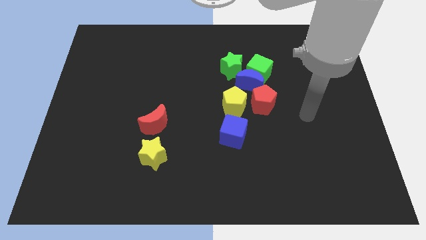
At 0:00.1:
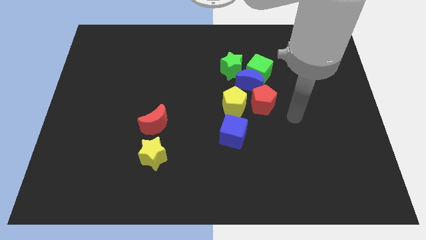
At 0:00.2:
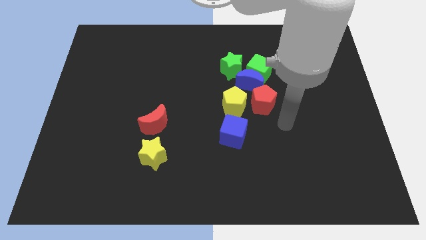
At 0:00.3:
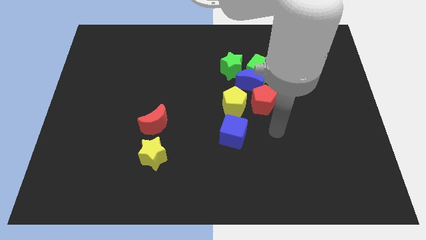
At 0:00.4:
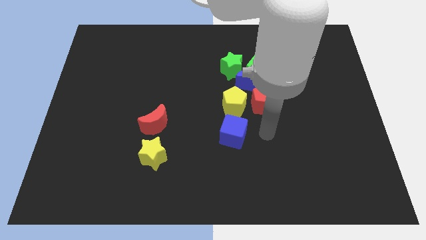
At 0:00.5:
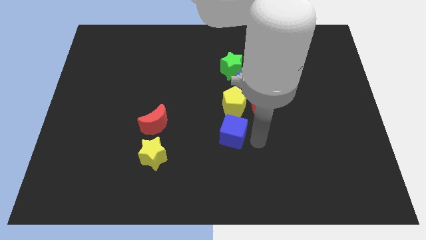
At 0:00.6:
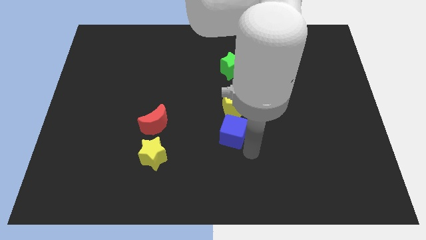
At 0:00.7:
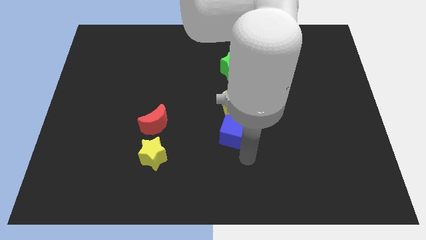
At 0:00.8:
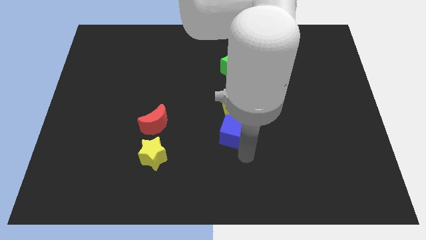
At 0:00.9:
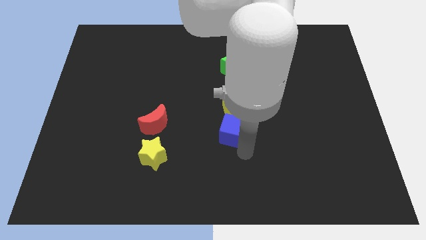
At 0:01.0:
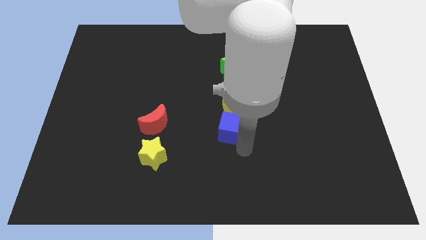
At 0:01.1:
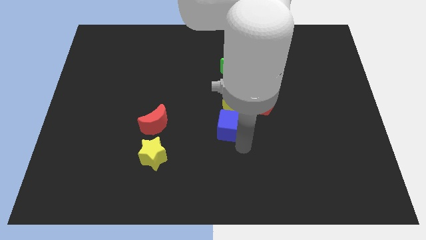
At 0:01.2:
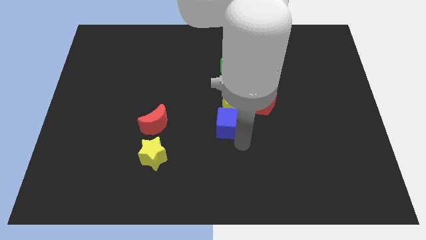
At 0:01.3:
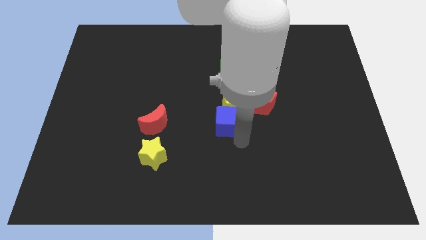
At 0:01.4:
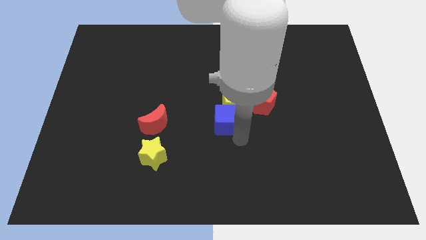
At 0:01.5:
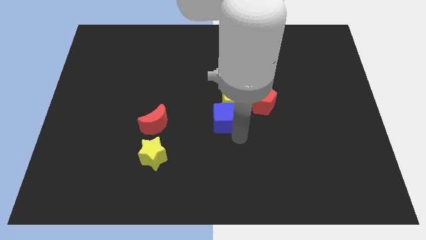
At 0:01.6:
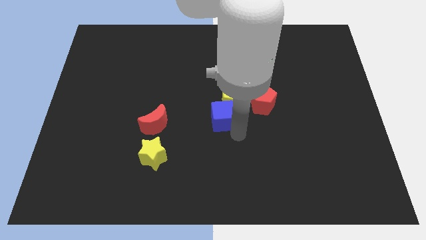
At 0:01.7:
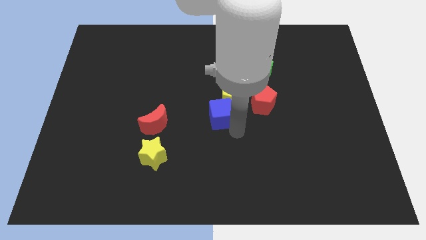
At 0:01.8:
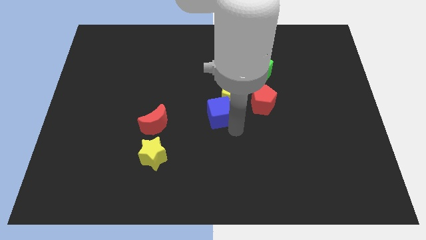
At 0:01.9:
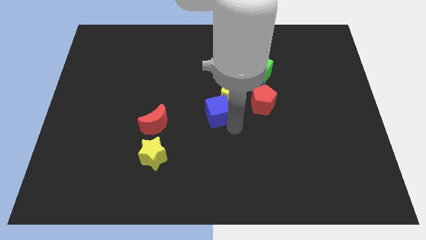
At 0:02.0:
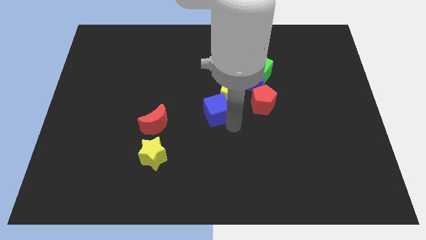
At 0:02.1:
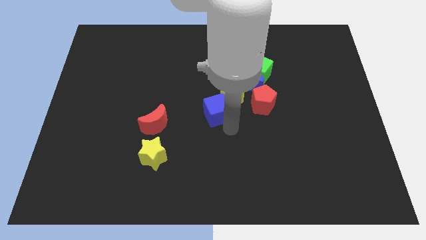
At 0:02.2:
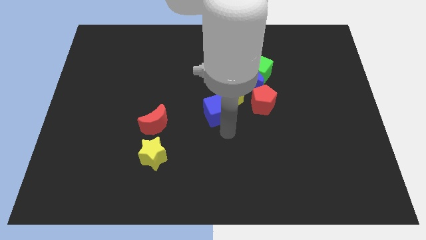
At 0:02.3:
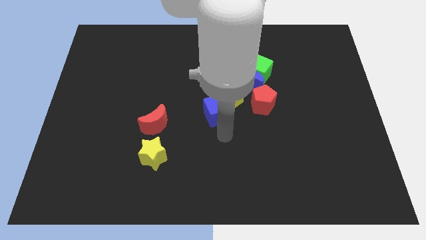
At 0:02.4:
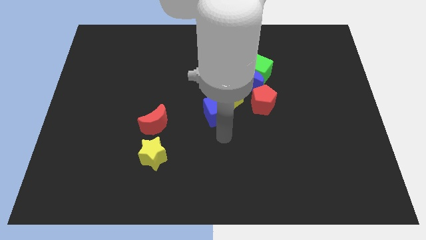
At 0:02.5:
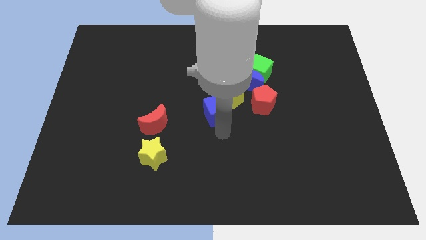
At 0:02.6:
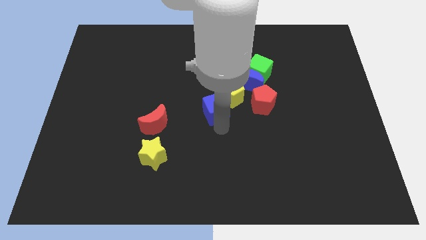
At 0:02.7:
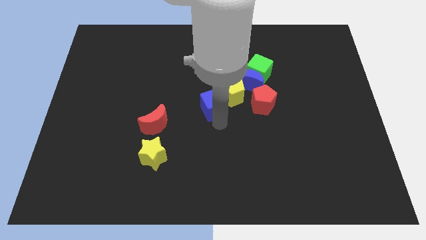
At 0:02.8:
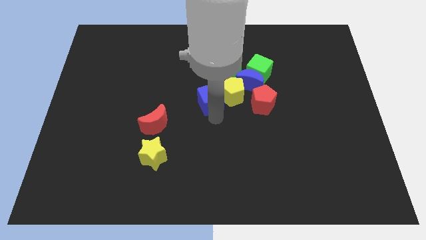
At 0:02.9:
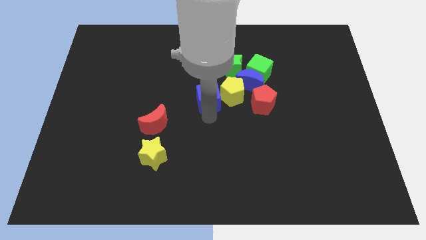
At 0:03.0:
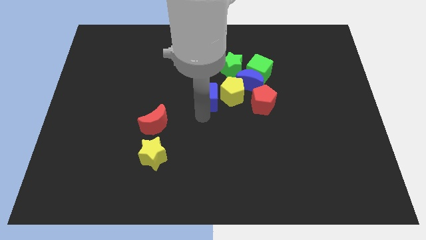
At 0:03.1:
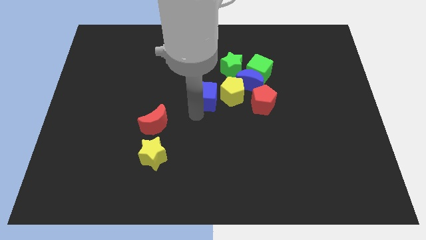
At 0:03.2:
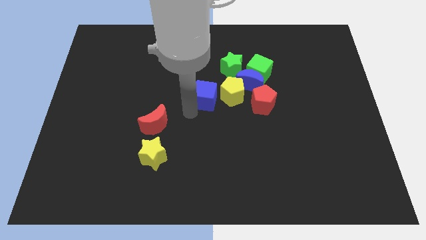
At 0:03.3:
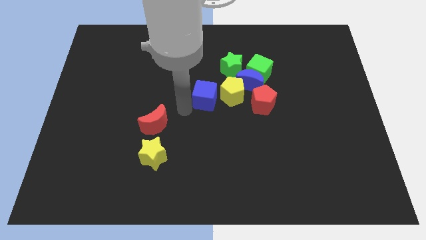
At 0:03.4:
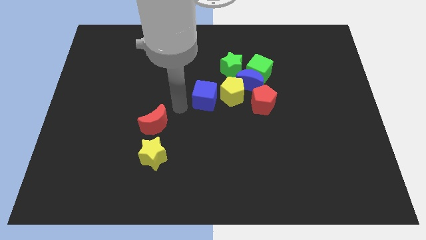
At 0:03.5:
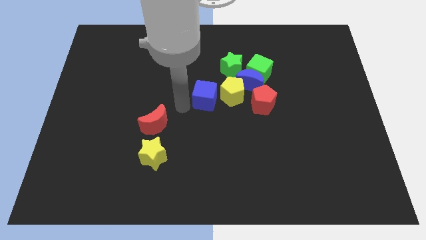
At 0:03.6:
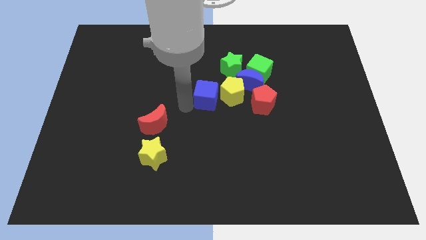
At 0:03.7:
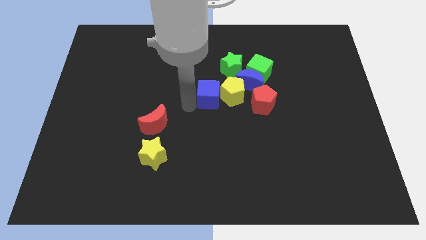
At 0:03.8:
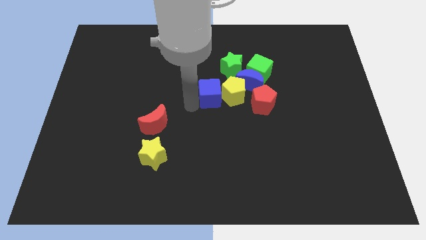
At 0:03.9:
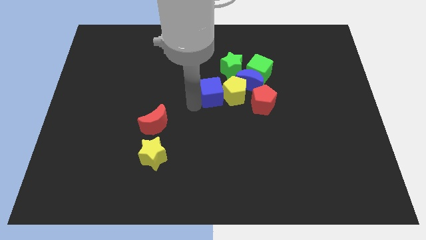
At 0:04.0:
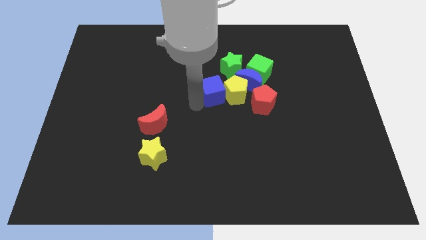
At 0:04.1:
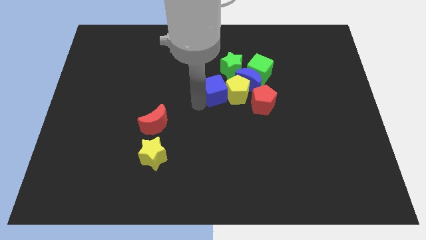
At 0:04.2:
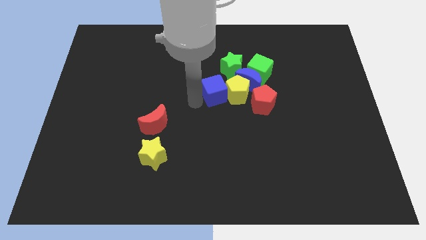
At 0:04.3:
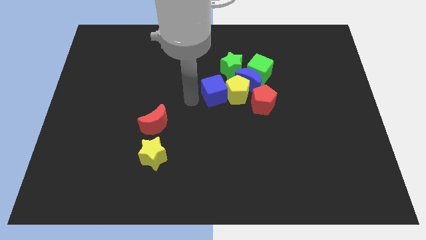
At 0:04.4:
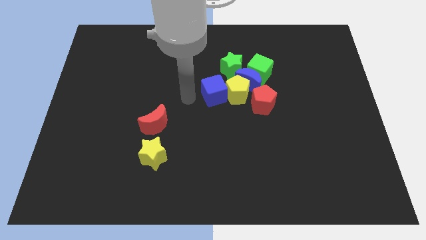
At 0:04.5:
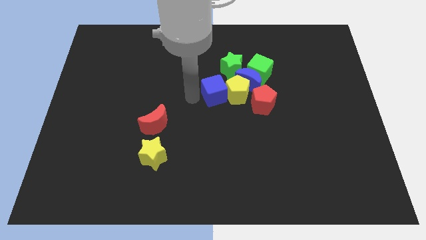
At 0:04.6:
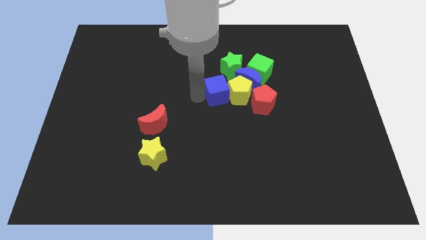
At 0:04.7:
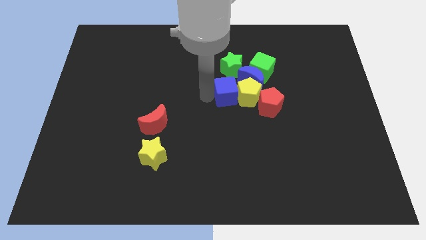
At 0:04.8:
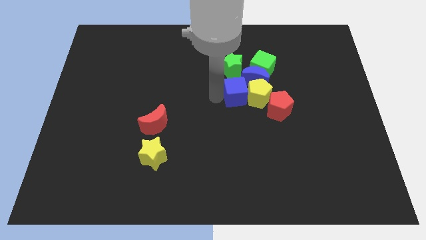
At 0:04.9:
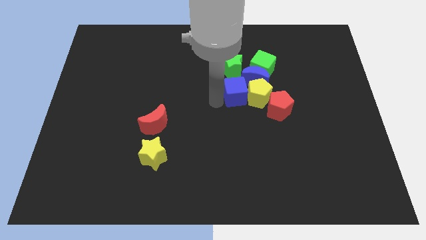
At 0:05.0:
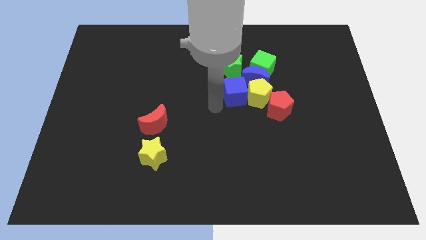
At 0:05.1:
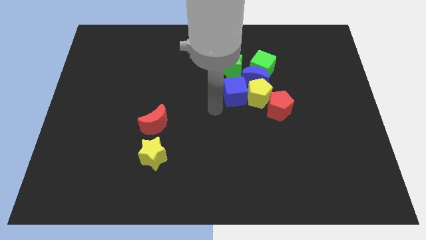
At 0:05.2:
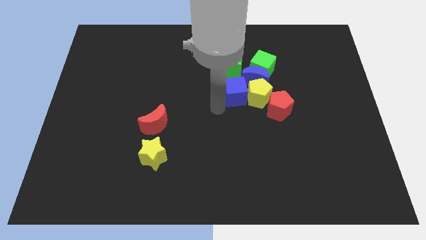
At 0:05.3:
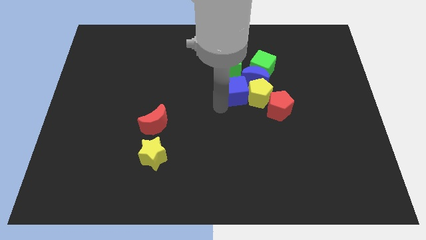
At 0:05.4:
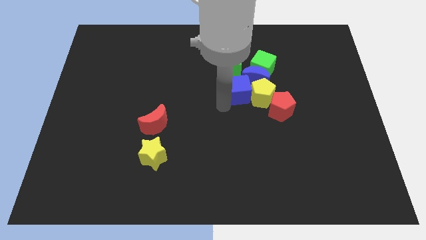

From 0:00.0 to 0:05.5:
move the blue cube to the blue moon

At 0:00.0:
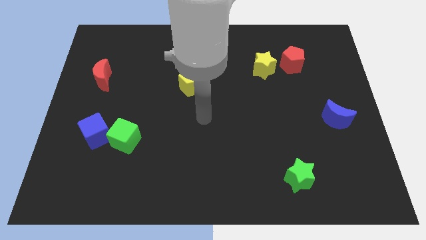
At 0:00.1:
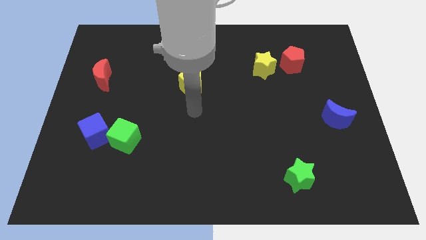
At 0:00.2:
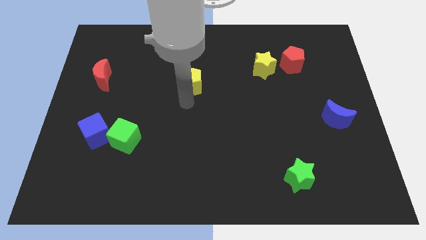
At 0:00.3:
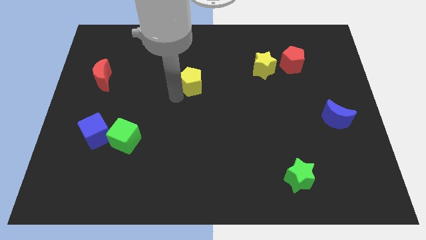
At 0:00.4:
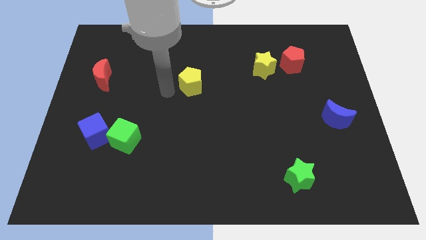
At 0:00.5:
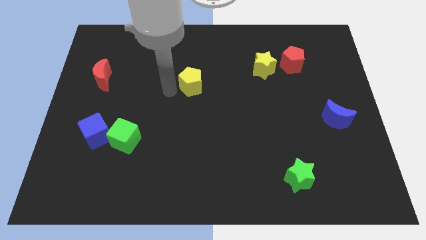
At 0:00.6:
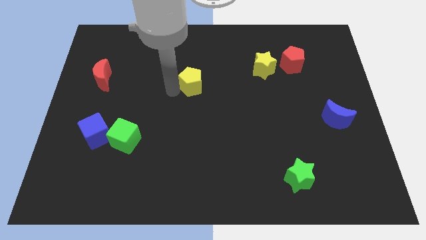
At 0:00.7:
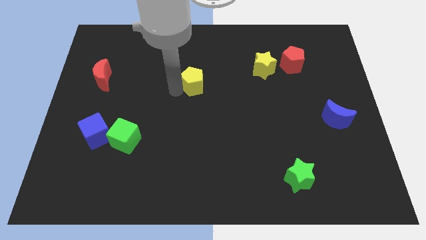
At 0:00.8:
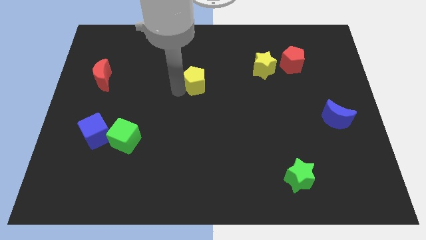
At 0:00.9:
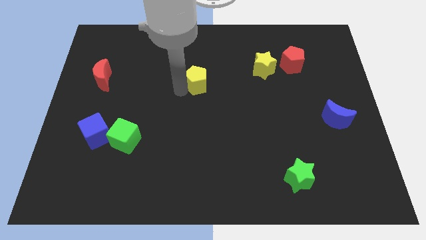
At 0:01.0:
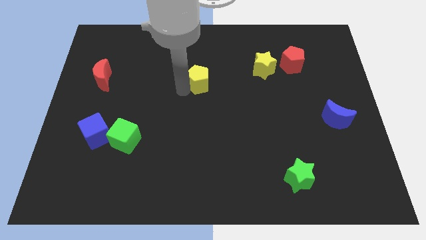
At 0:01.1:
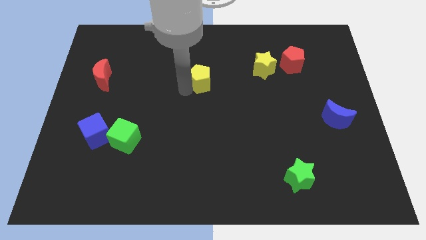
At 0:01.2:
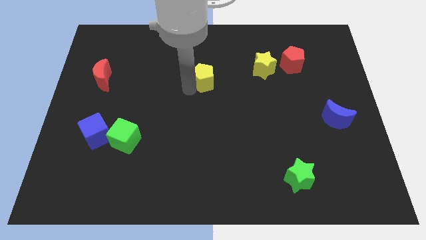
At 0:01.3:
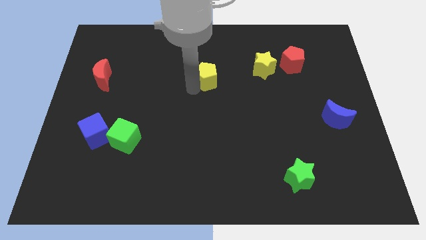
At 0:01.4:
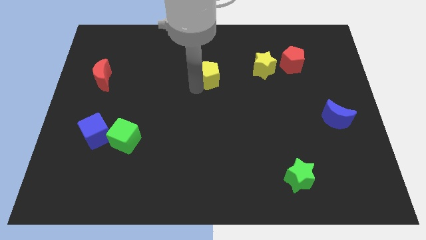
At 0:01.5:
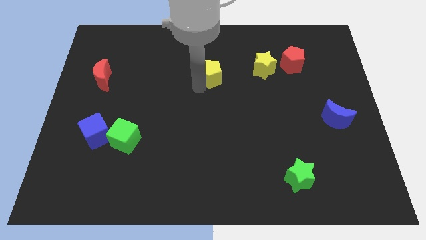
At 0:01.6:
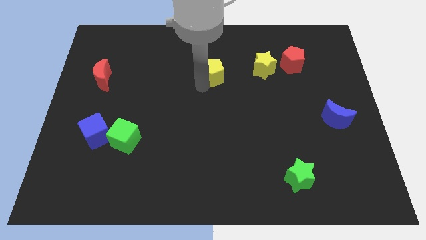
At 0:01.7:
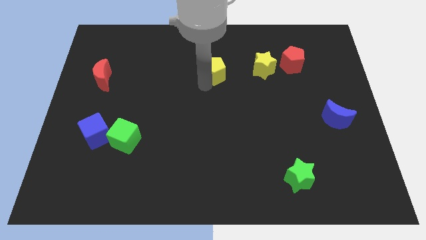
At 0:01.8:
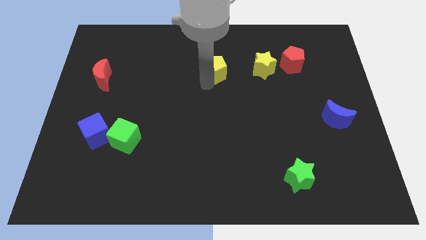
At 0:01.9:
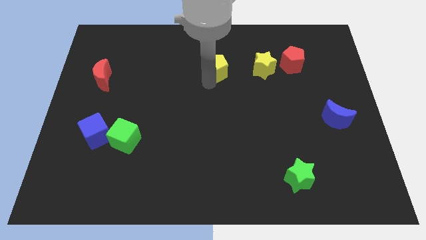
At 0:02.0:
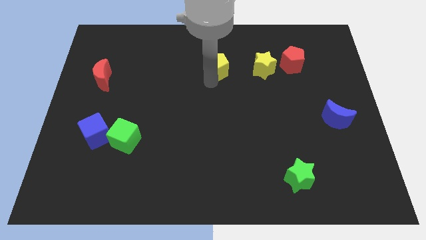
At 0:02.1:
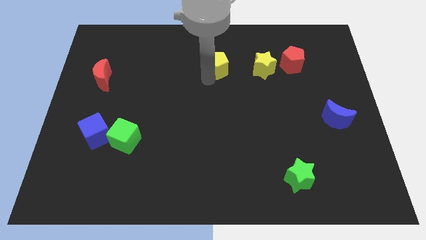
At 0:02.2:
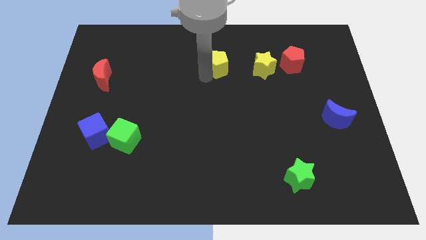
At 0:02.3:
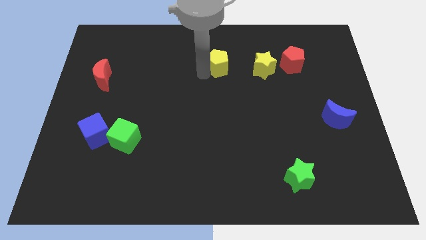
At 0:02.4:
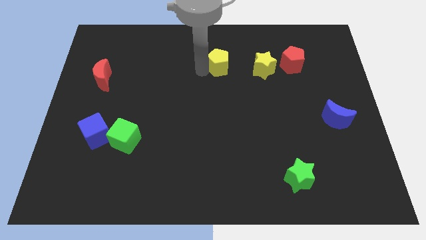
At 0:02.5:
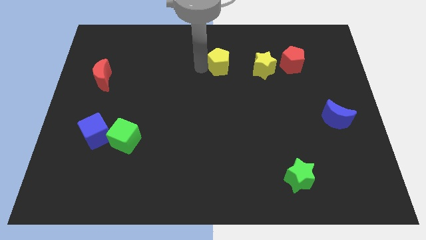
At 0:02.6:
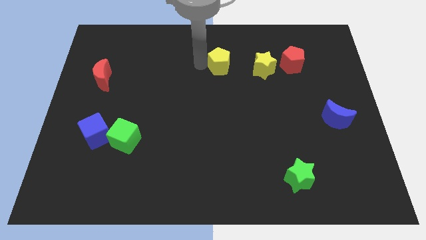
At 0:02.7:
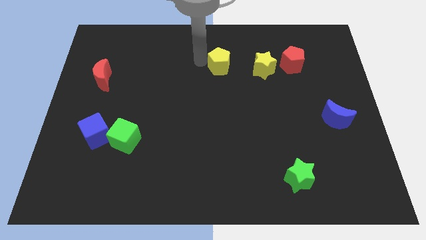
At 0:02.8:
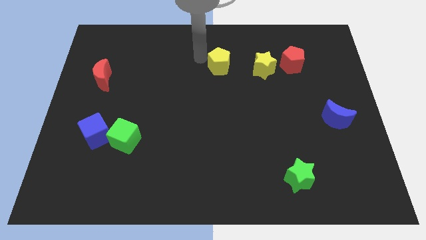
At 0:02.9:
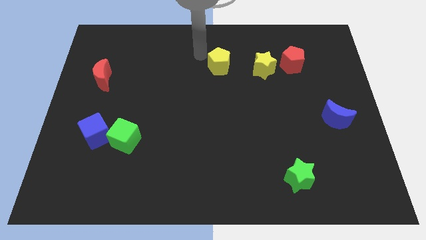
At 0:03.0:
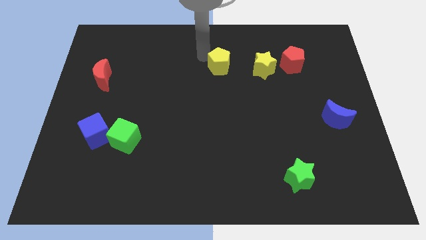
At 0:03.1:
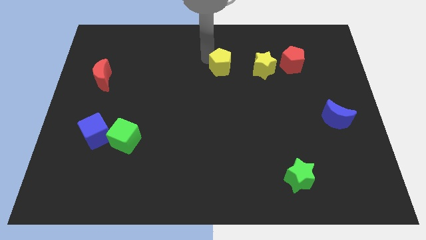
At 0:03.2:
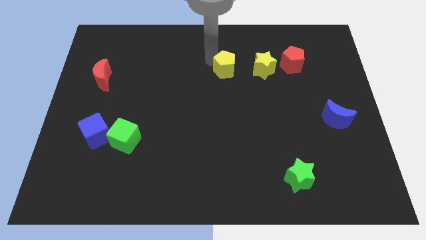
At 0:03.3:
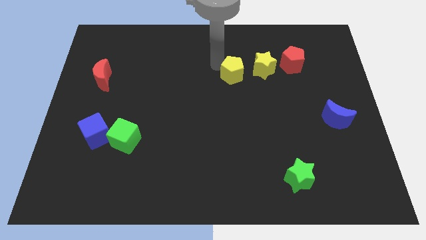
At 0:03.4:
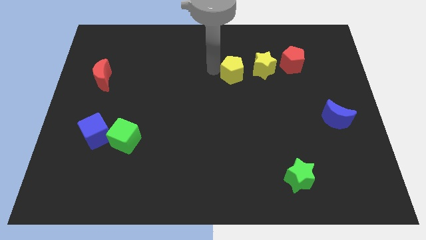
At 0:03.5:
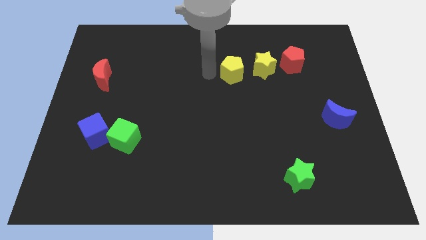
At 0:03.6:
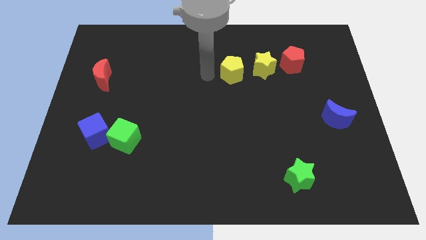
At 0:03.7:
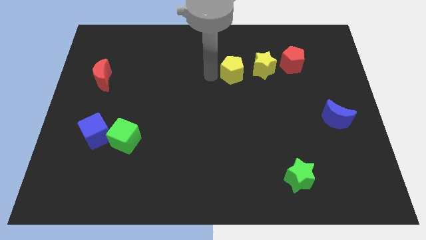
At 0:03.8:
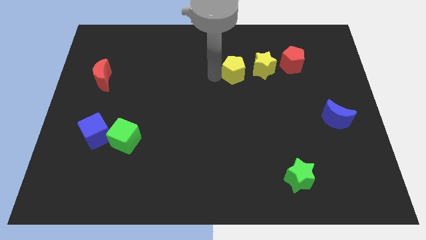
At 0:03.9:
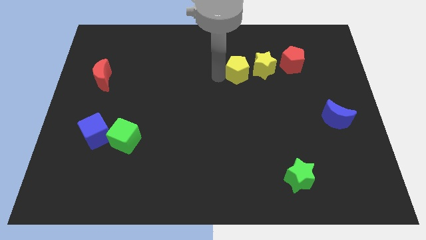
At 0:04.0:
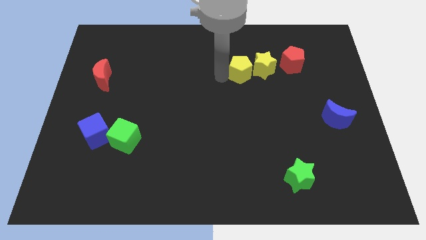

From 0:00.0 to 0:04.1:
slide the yellow pentagon next to the yellow star
